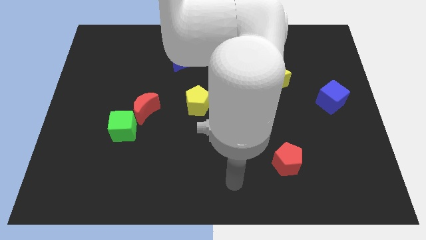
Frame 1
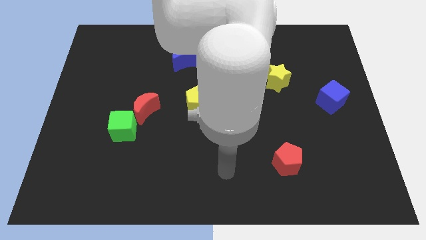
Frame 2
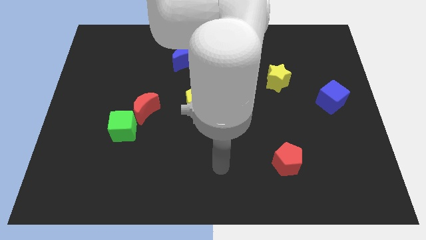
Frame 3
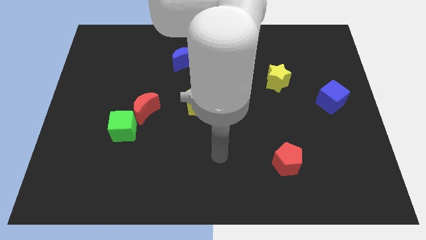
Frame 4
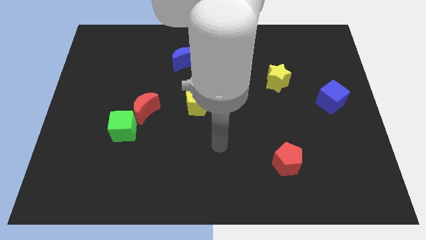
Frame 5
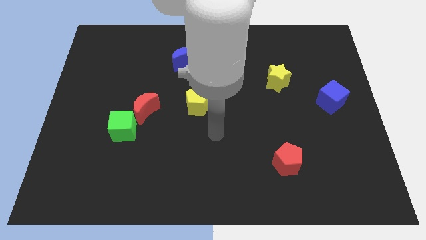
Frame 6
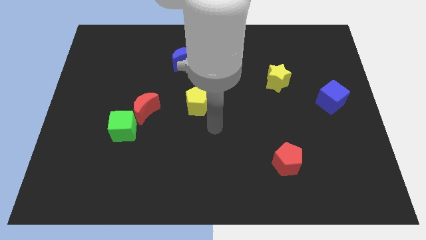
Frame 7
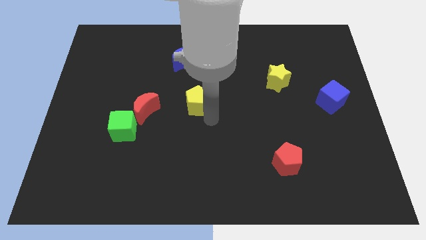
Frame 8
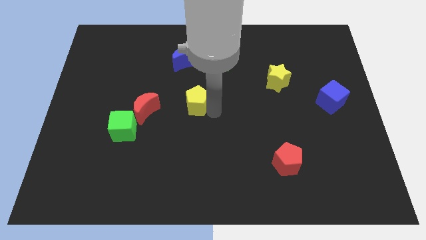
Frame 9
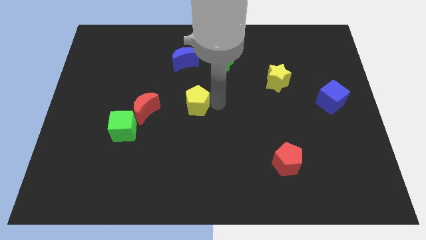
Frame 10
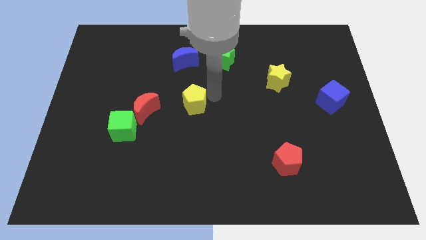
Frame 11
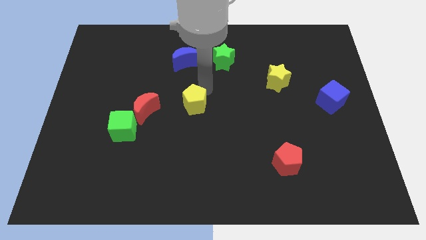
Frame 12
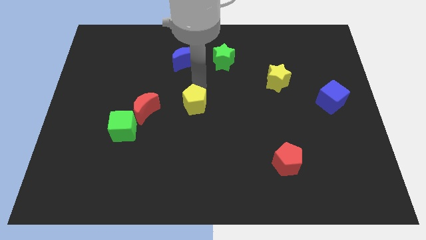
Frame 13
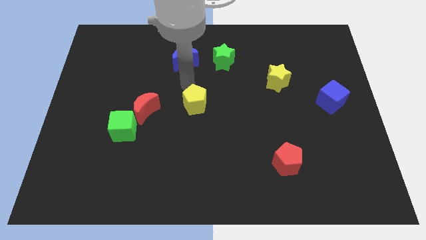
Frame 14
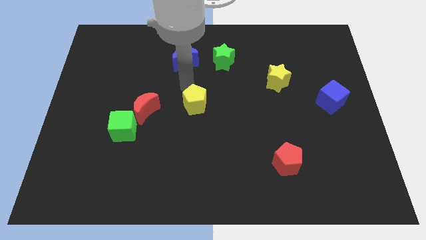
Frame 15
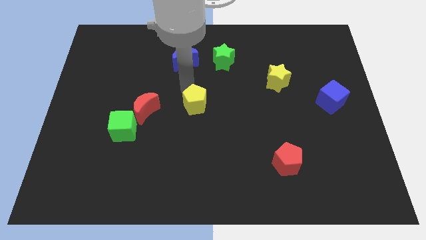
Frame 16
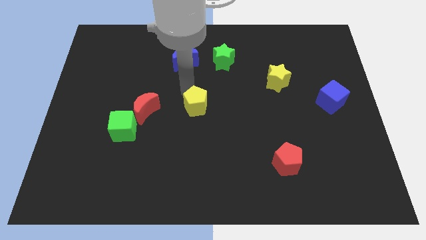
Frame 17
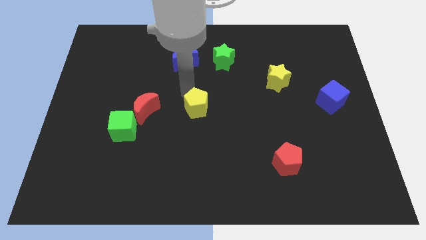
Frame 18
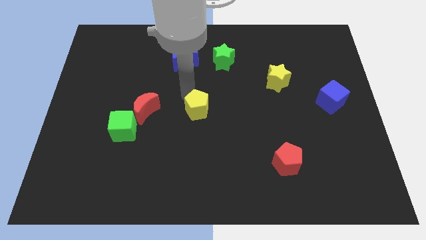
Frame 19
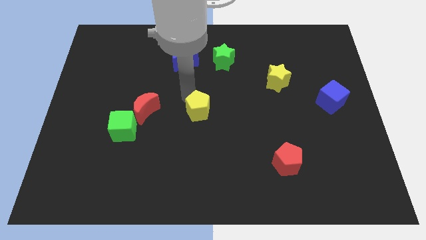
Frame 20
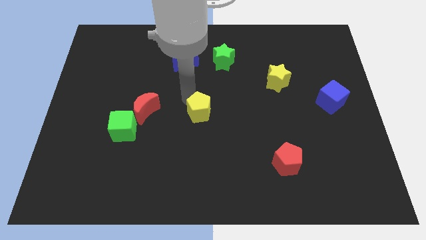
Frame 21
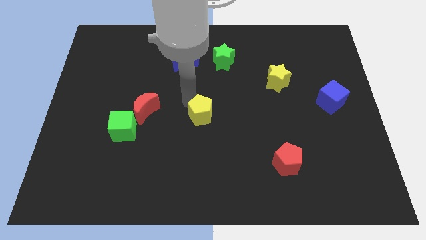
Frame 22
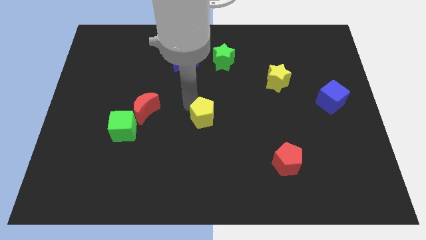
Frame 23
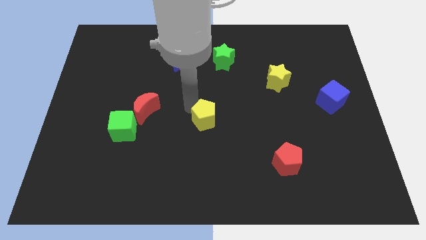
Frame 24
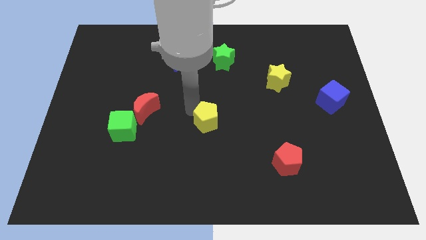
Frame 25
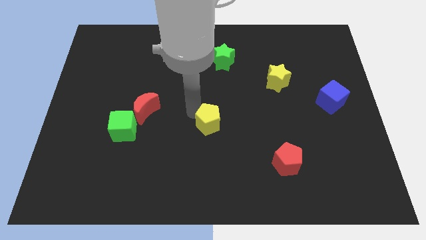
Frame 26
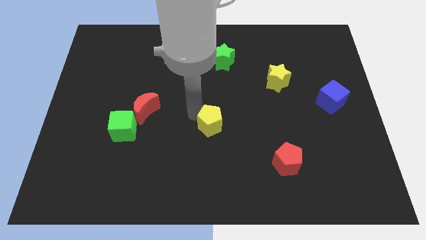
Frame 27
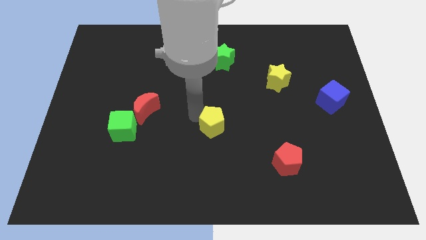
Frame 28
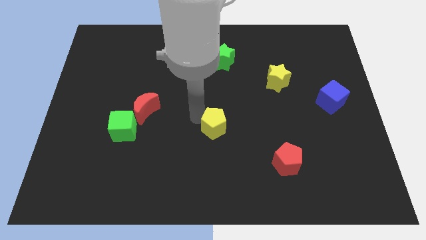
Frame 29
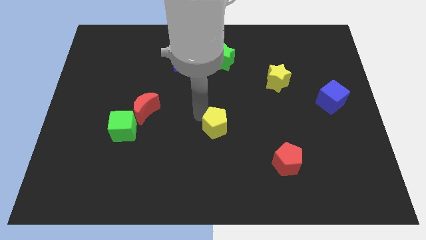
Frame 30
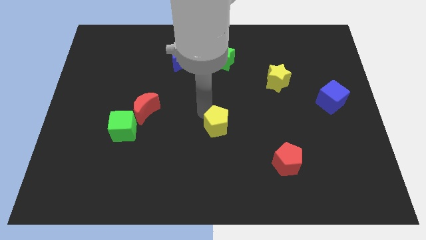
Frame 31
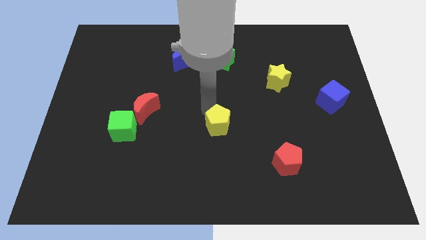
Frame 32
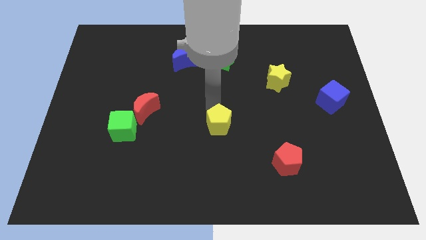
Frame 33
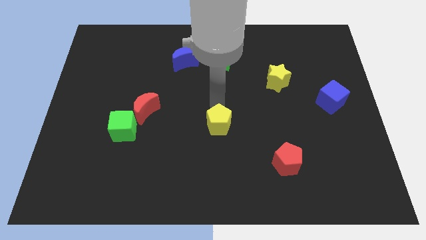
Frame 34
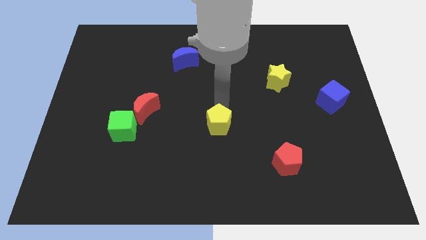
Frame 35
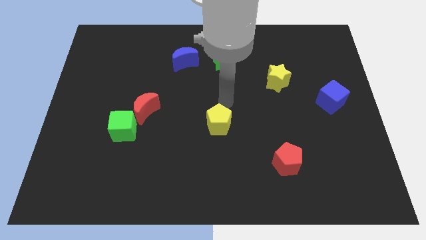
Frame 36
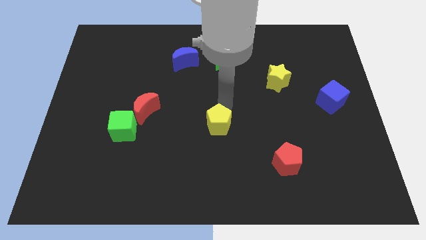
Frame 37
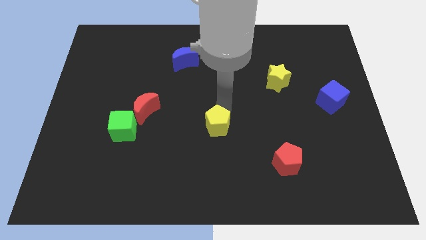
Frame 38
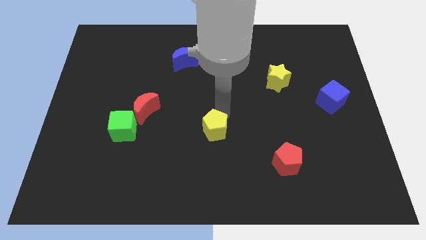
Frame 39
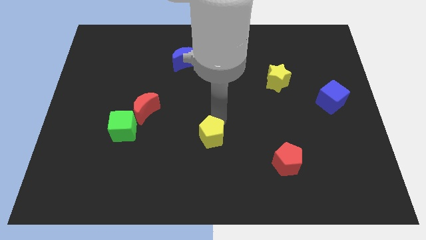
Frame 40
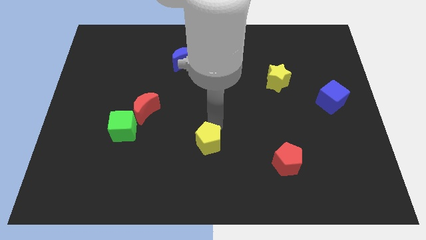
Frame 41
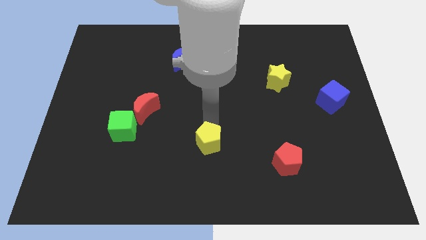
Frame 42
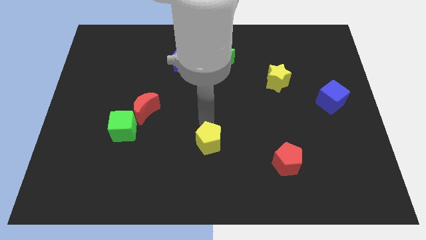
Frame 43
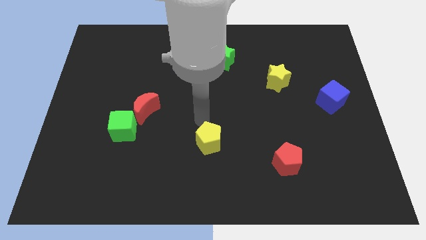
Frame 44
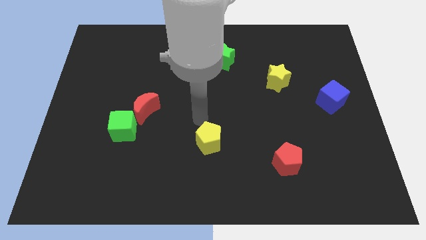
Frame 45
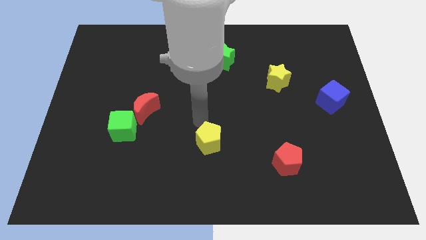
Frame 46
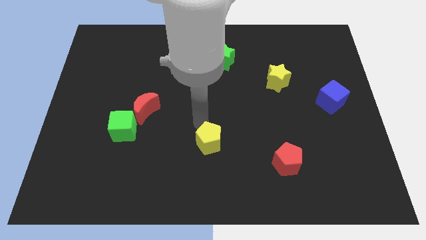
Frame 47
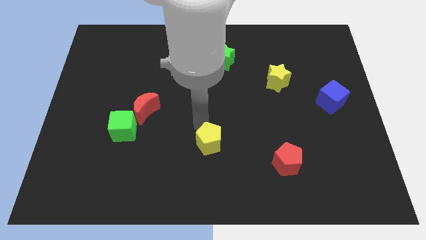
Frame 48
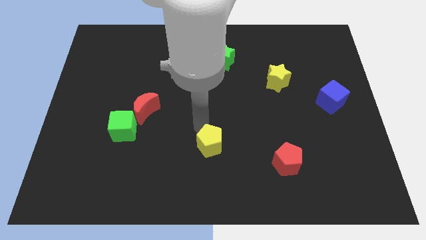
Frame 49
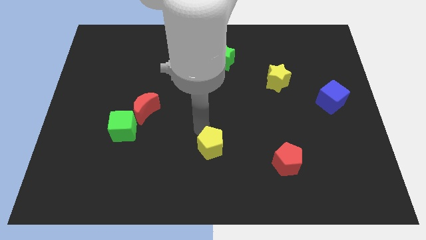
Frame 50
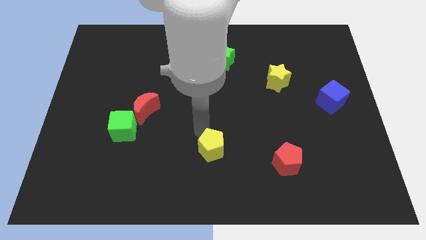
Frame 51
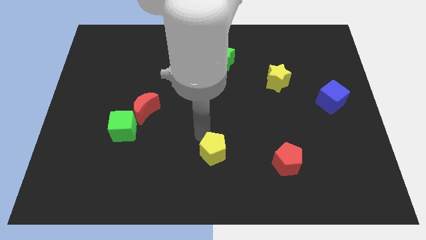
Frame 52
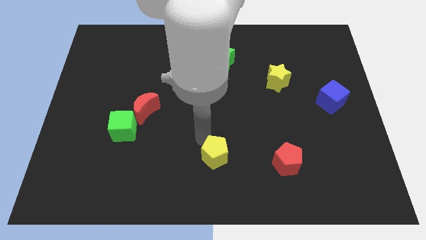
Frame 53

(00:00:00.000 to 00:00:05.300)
push the yellow pentagon to the bottom

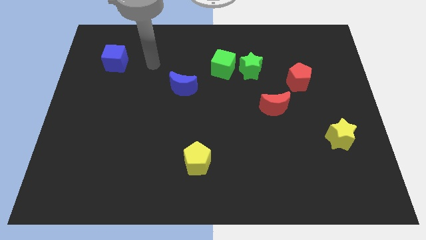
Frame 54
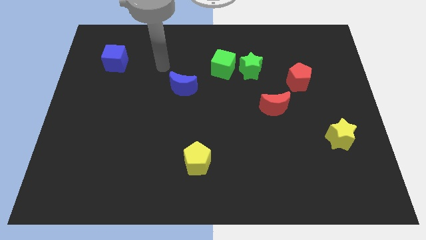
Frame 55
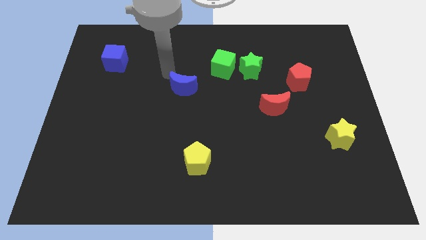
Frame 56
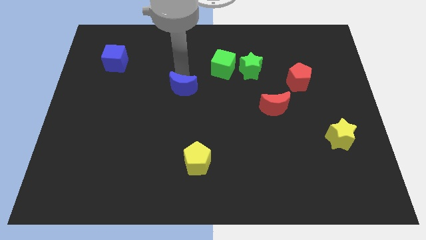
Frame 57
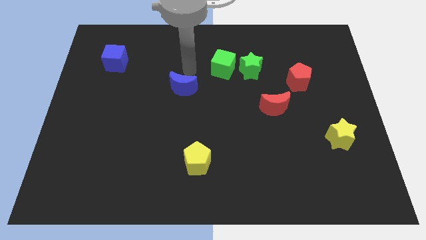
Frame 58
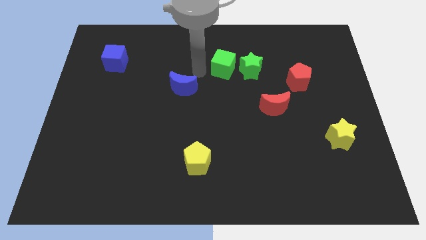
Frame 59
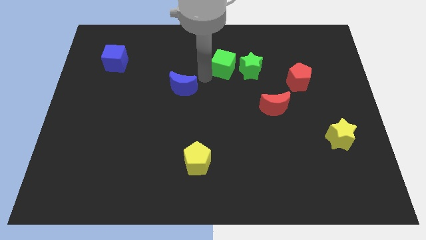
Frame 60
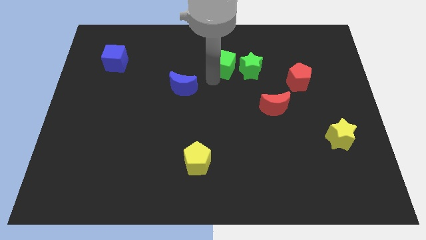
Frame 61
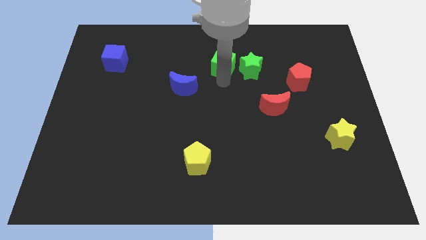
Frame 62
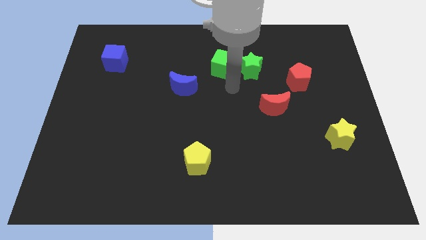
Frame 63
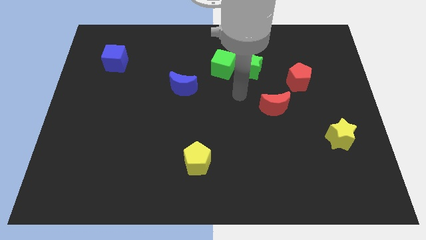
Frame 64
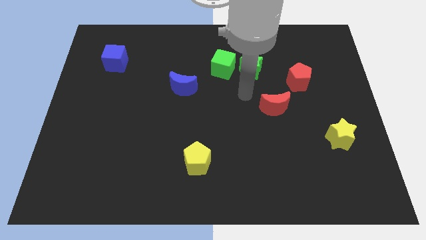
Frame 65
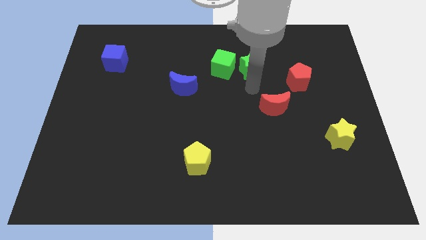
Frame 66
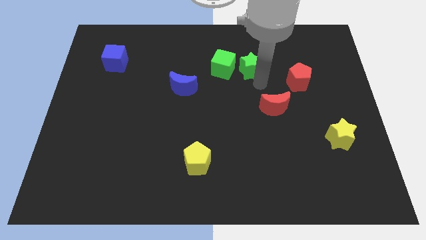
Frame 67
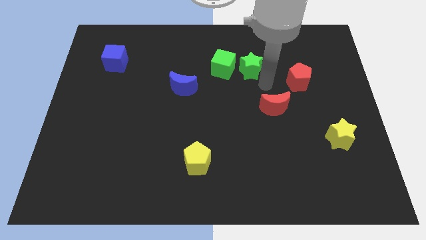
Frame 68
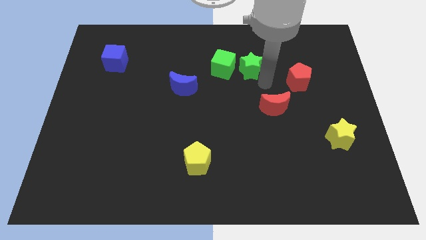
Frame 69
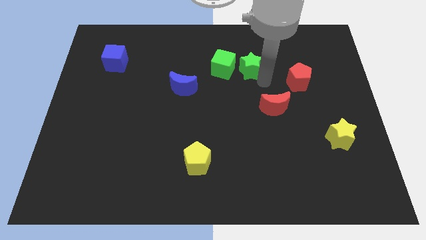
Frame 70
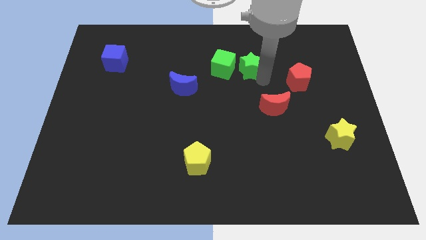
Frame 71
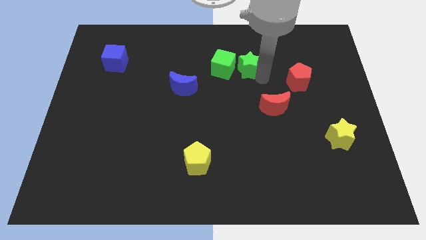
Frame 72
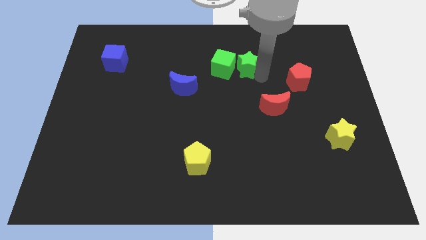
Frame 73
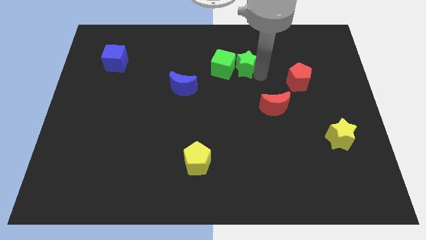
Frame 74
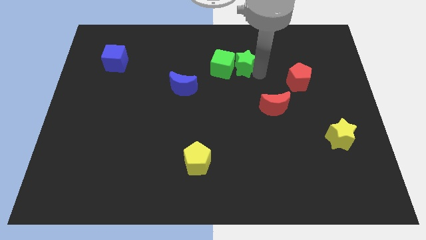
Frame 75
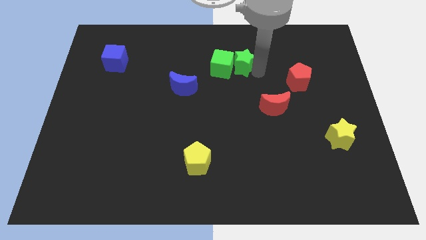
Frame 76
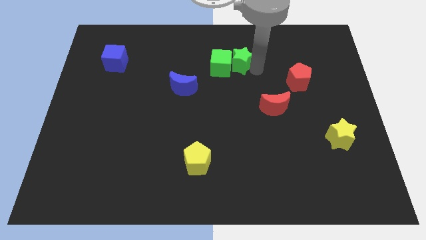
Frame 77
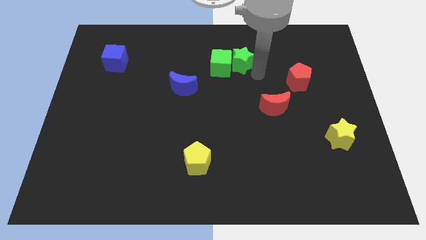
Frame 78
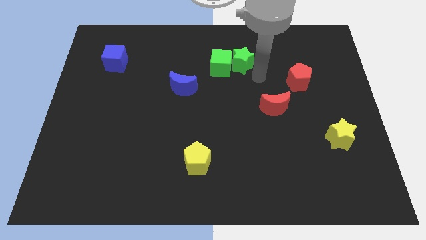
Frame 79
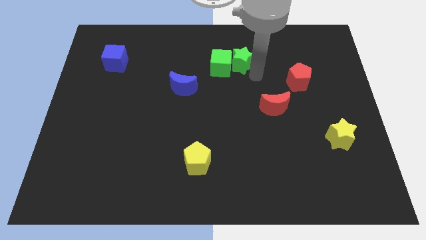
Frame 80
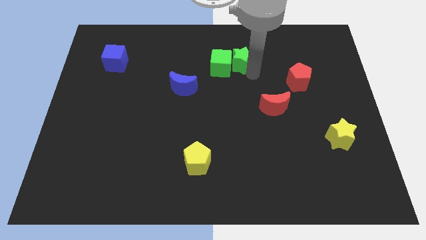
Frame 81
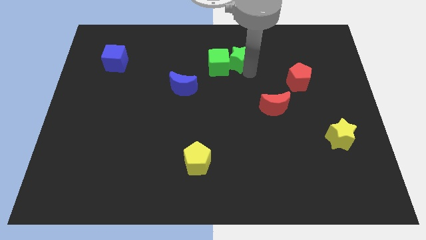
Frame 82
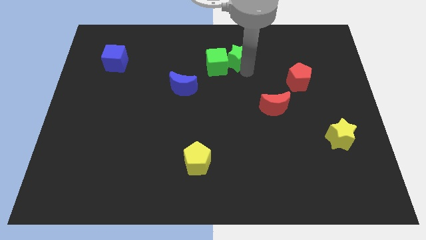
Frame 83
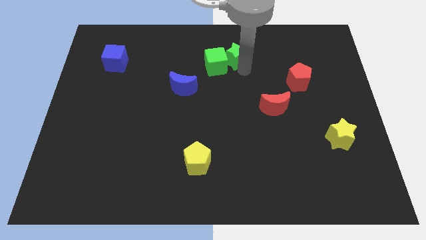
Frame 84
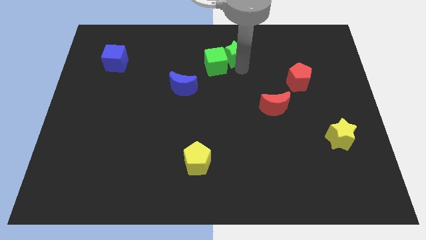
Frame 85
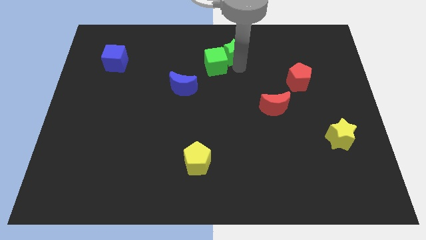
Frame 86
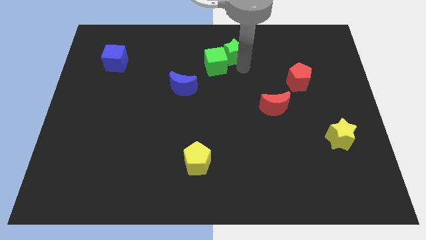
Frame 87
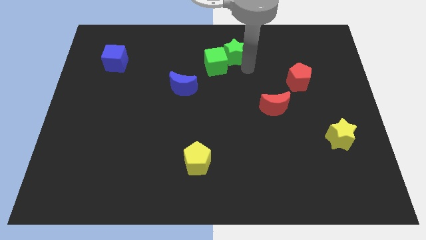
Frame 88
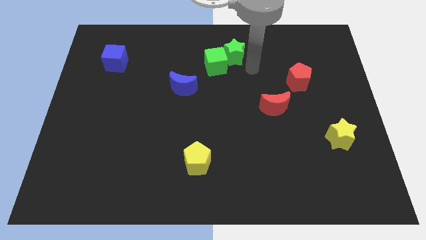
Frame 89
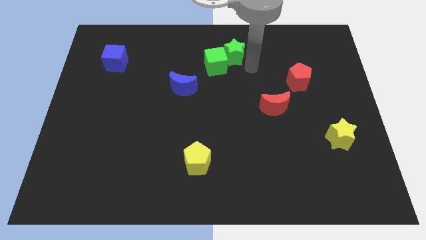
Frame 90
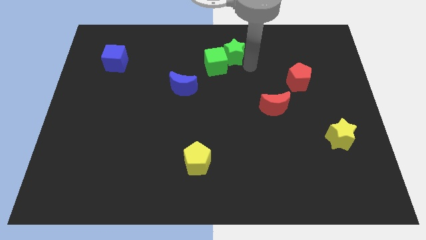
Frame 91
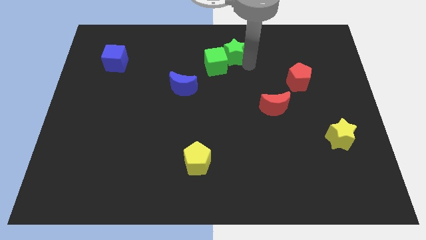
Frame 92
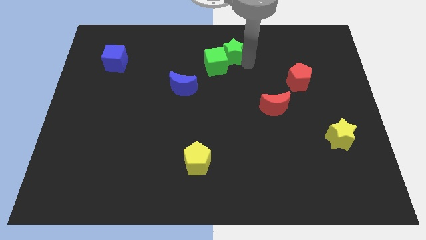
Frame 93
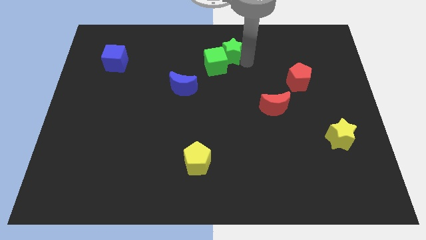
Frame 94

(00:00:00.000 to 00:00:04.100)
move the green star to the top
